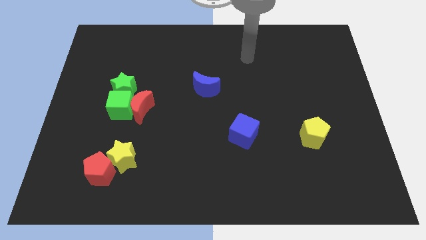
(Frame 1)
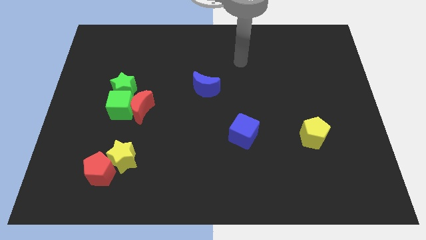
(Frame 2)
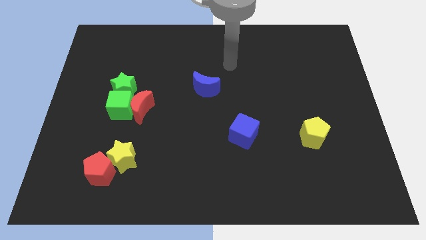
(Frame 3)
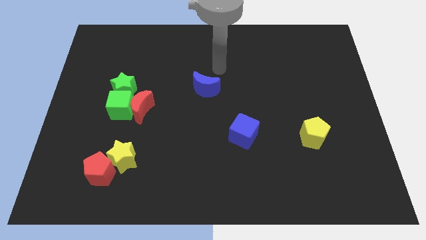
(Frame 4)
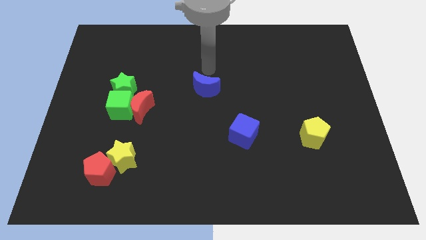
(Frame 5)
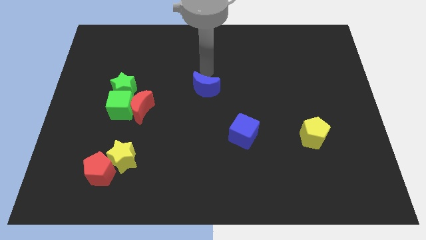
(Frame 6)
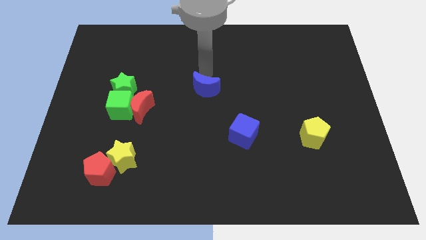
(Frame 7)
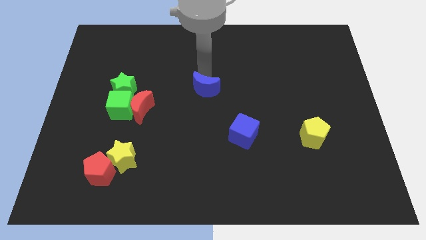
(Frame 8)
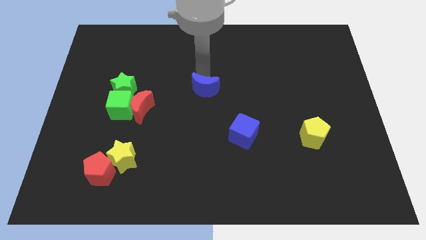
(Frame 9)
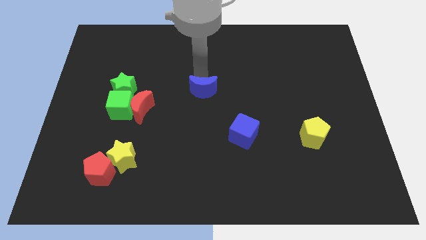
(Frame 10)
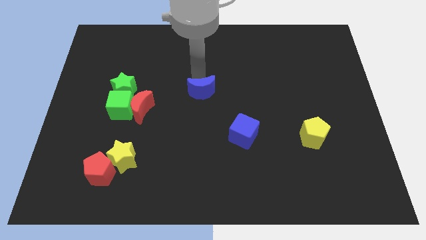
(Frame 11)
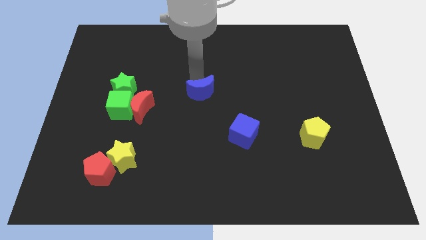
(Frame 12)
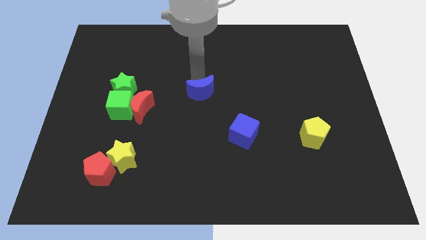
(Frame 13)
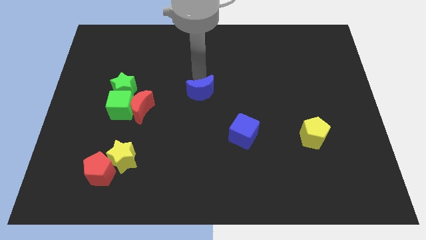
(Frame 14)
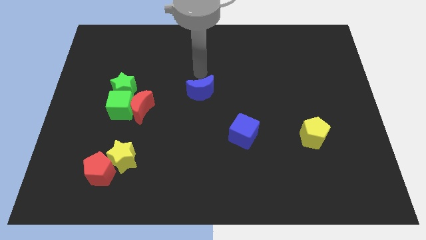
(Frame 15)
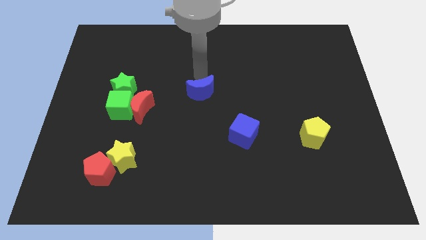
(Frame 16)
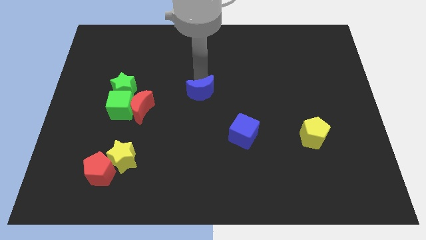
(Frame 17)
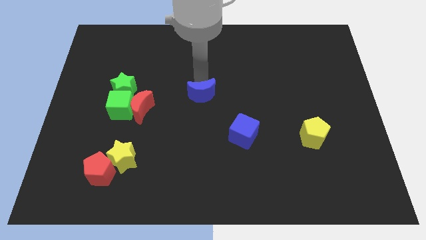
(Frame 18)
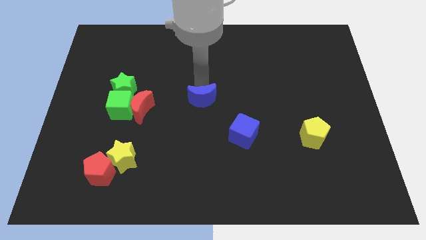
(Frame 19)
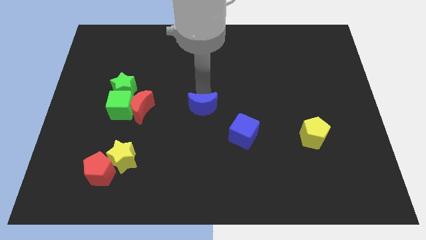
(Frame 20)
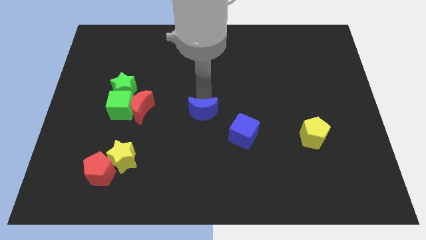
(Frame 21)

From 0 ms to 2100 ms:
push the blue moon downwards a little

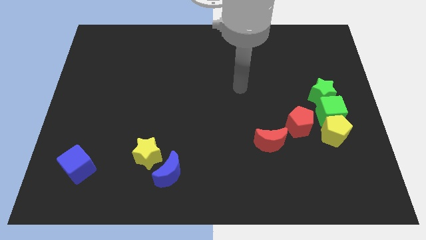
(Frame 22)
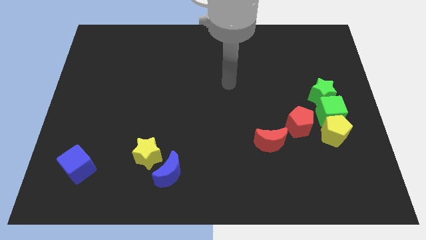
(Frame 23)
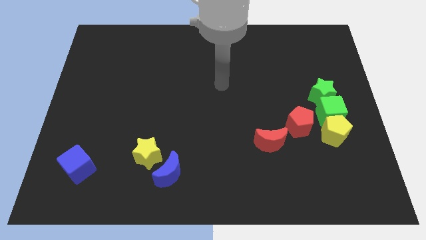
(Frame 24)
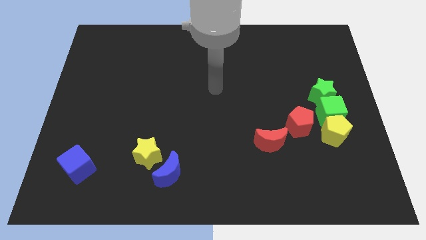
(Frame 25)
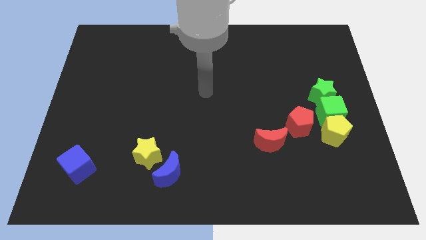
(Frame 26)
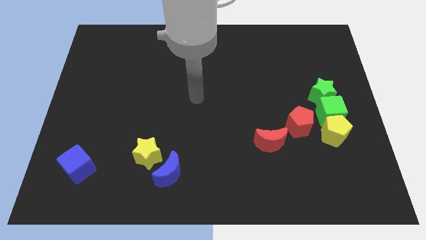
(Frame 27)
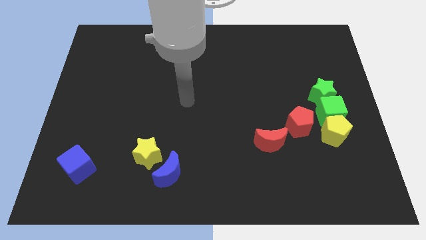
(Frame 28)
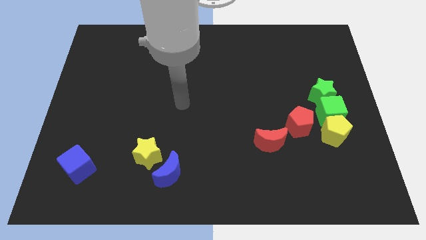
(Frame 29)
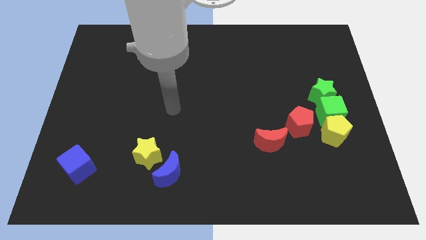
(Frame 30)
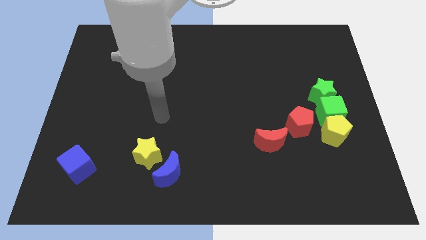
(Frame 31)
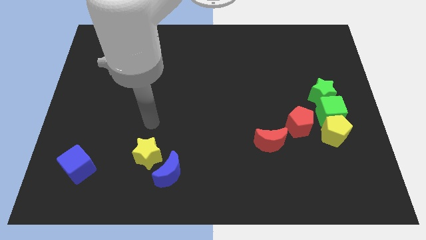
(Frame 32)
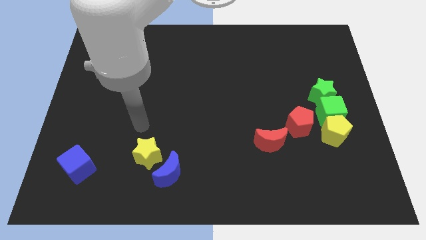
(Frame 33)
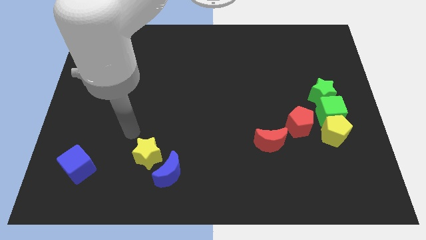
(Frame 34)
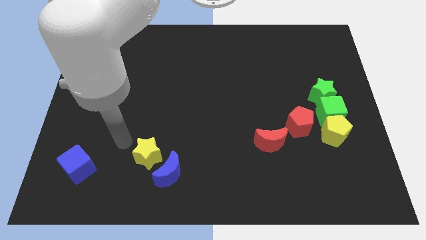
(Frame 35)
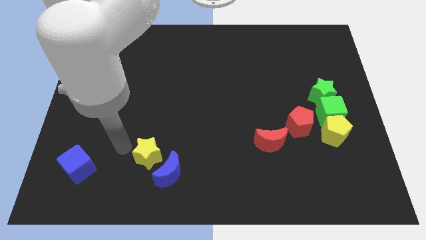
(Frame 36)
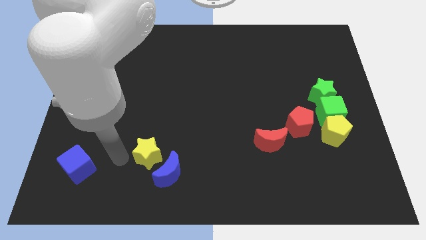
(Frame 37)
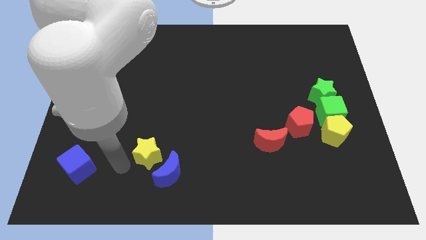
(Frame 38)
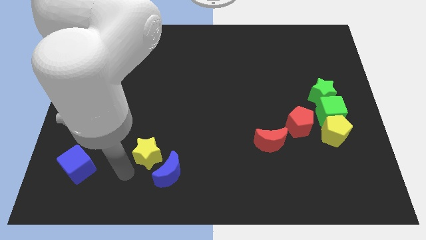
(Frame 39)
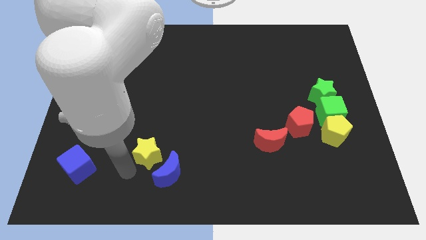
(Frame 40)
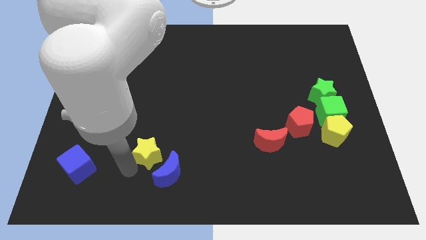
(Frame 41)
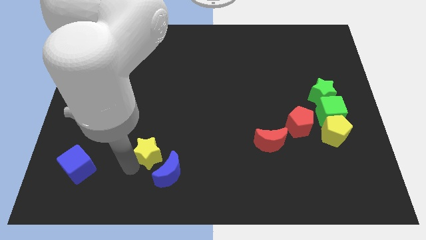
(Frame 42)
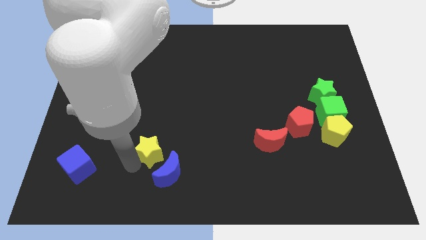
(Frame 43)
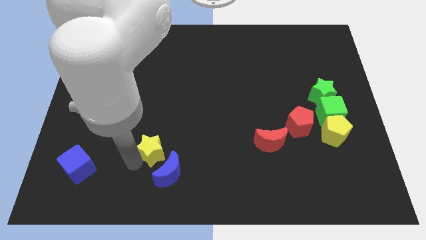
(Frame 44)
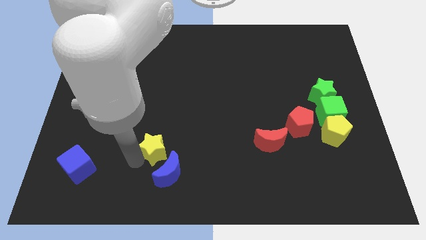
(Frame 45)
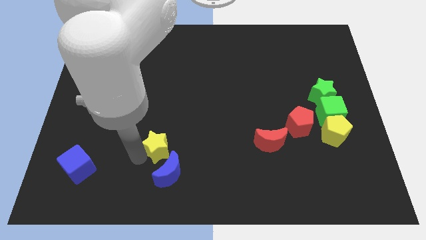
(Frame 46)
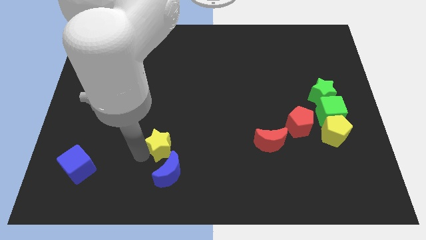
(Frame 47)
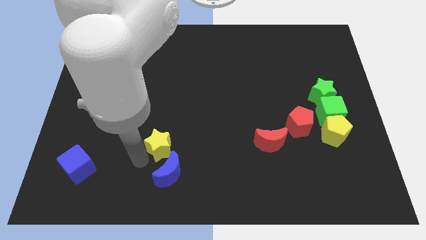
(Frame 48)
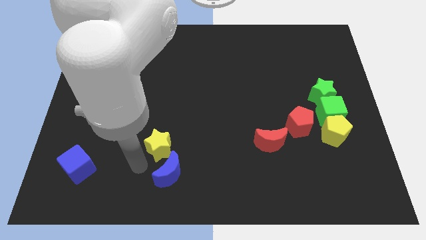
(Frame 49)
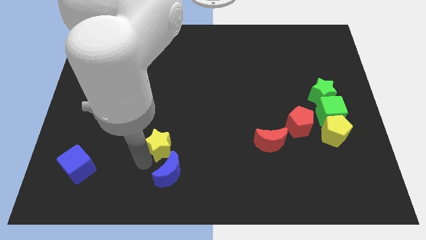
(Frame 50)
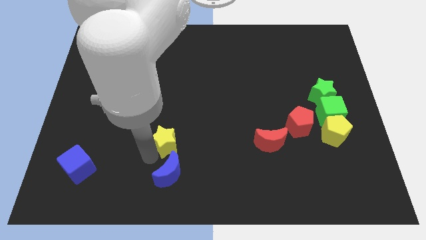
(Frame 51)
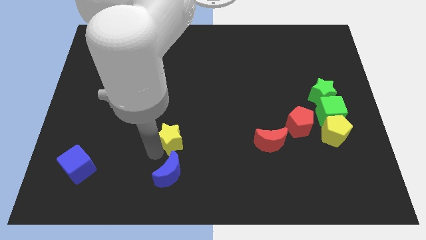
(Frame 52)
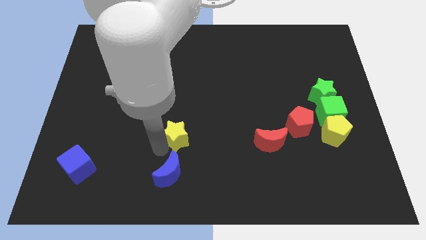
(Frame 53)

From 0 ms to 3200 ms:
move the yellow star a bit diagonally up and right

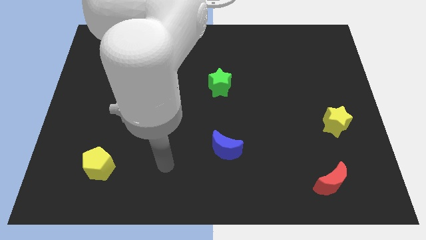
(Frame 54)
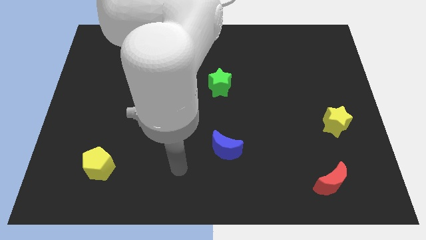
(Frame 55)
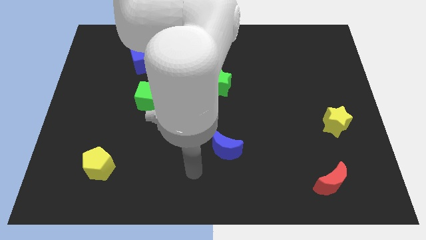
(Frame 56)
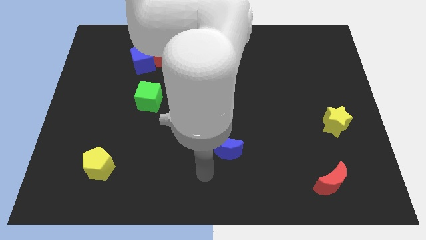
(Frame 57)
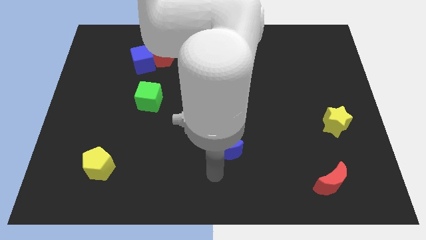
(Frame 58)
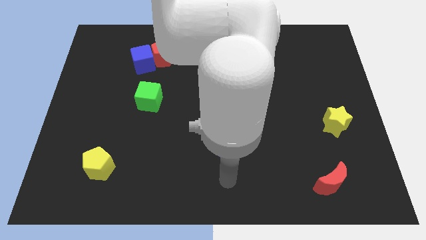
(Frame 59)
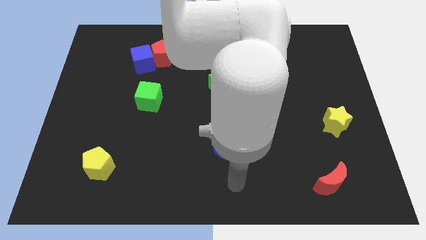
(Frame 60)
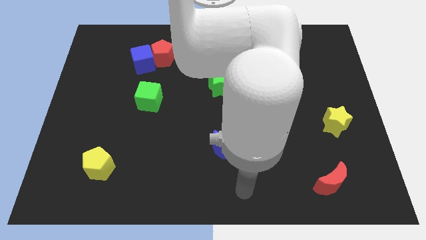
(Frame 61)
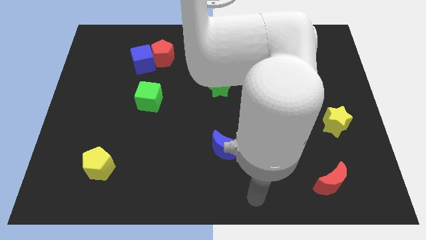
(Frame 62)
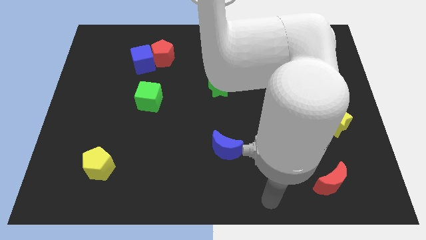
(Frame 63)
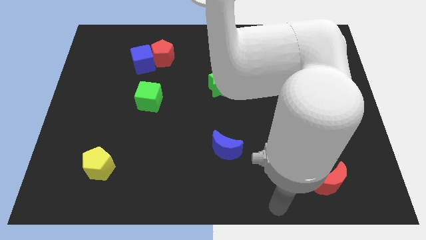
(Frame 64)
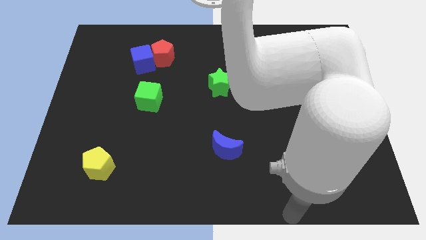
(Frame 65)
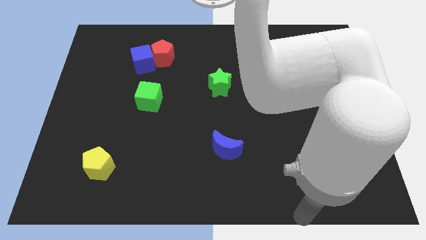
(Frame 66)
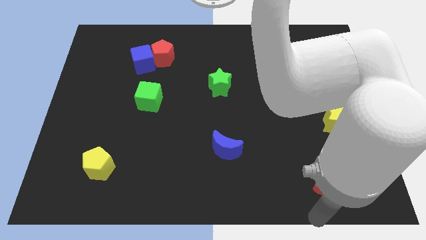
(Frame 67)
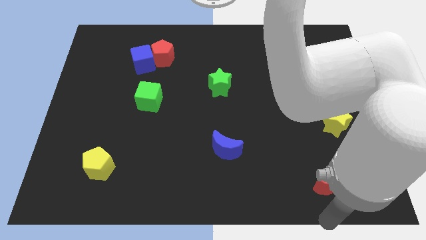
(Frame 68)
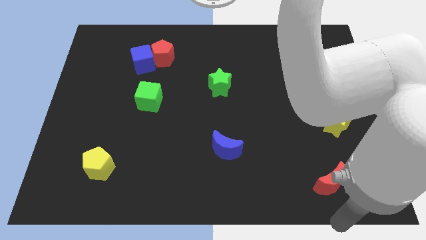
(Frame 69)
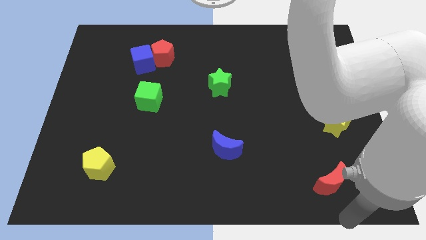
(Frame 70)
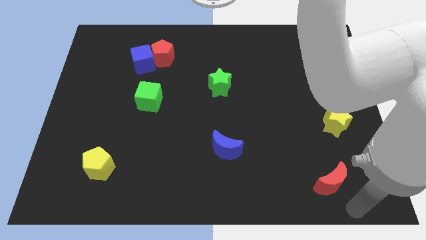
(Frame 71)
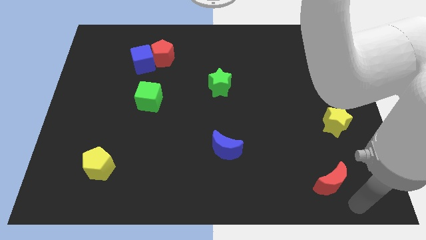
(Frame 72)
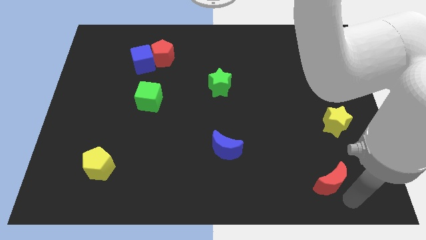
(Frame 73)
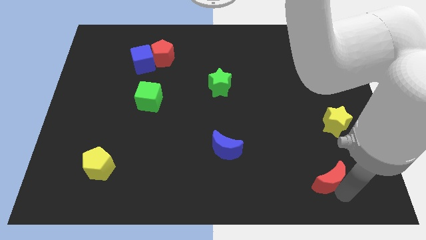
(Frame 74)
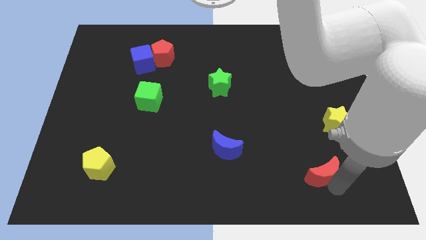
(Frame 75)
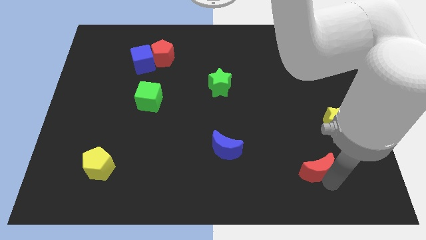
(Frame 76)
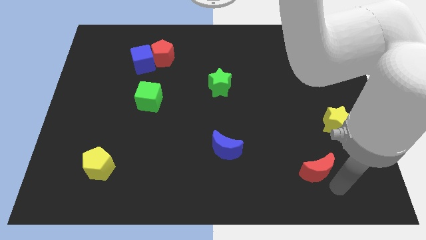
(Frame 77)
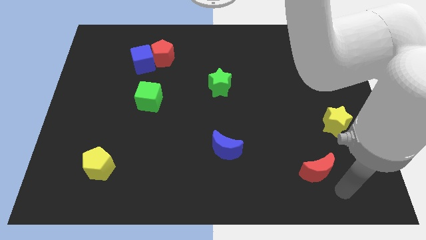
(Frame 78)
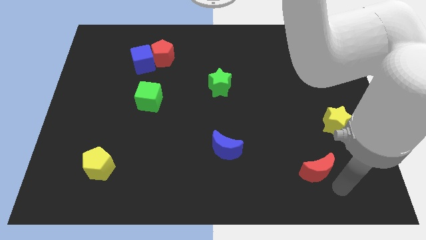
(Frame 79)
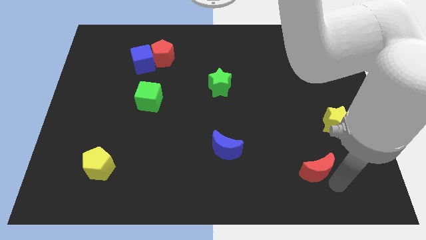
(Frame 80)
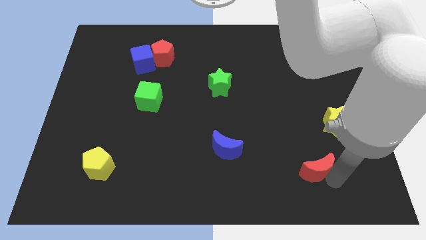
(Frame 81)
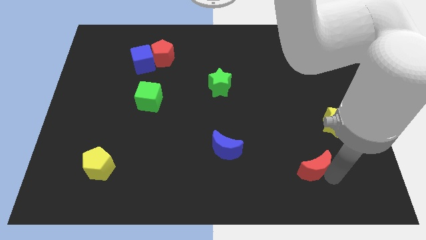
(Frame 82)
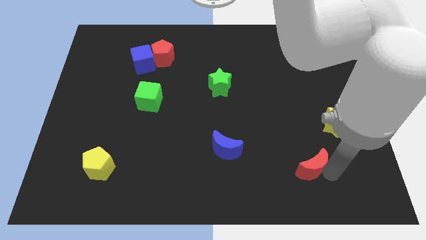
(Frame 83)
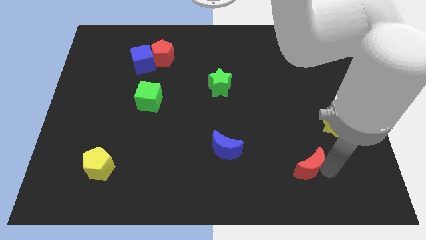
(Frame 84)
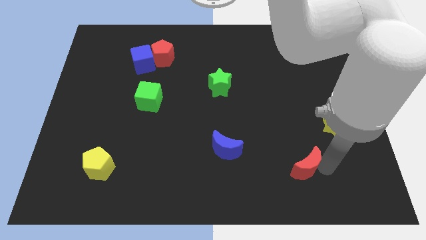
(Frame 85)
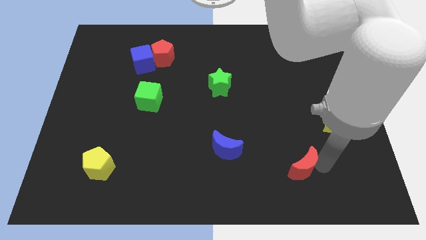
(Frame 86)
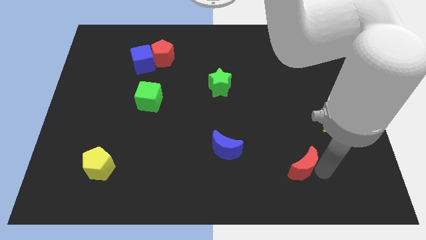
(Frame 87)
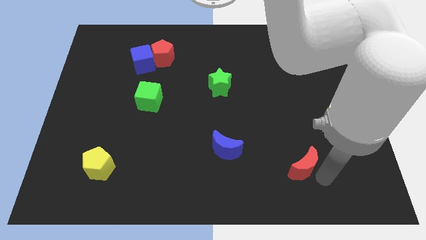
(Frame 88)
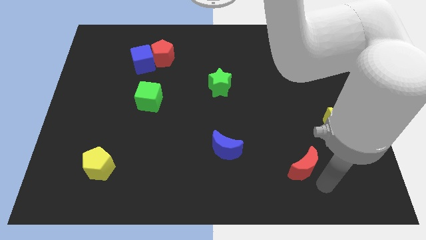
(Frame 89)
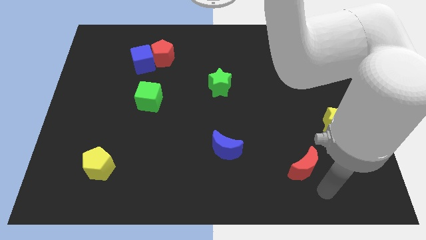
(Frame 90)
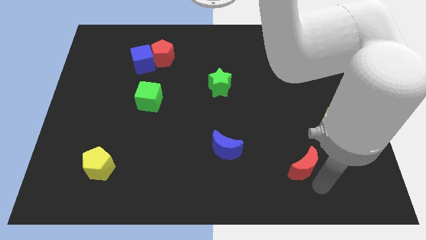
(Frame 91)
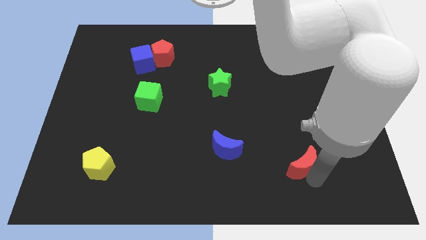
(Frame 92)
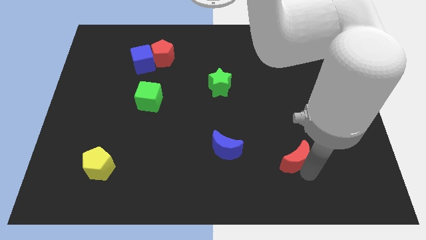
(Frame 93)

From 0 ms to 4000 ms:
slide the red moon a little bit upwards and to the left diagonally
